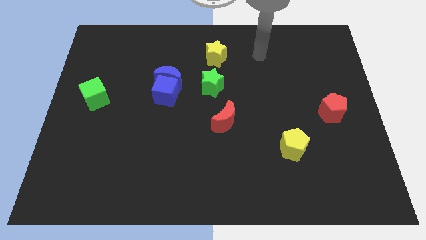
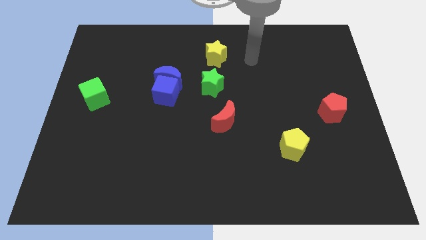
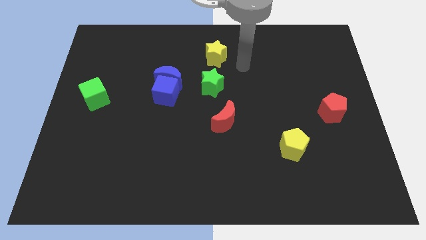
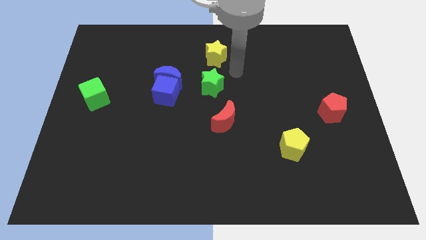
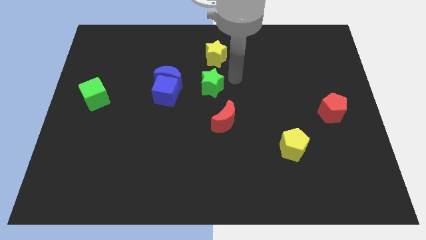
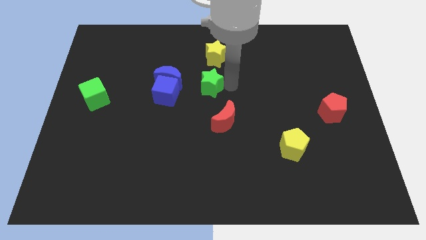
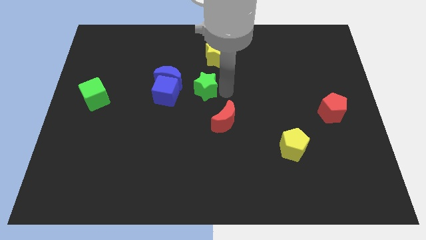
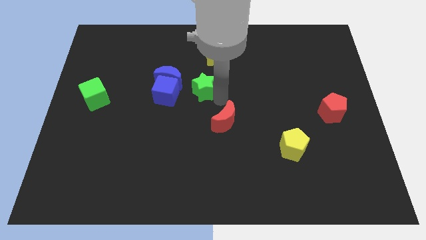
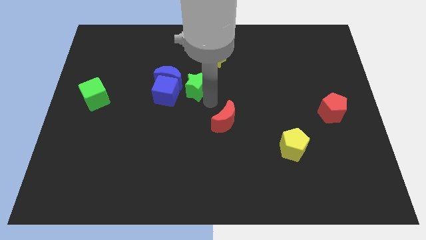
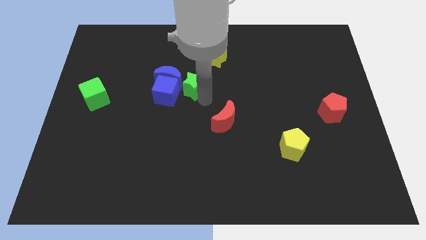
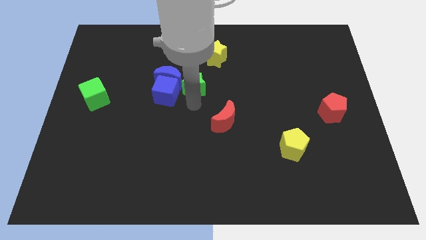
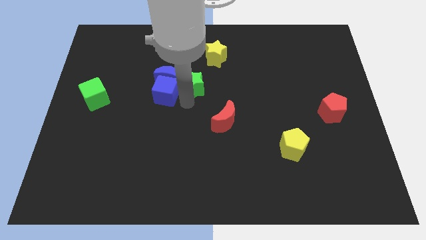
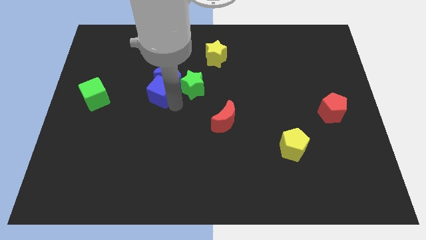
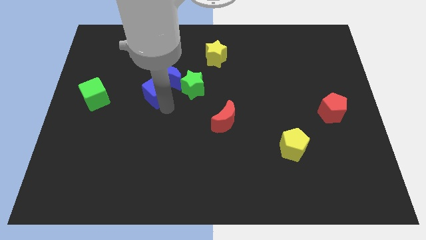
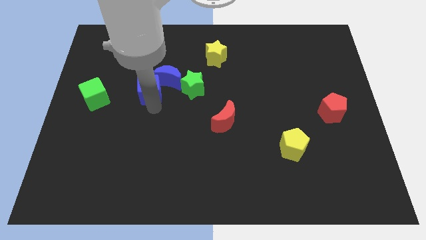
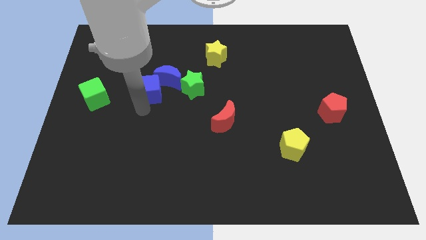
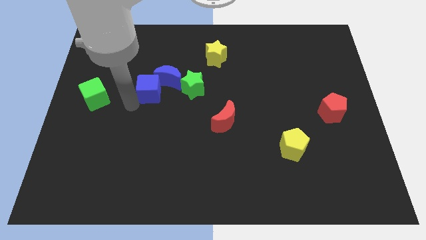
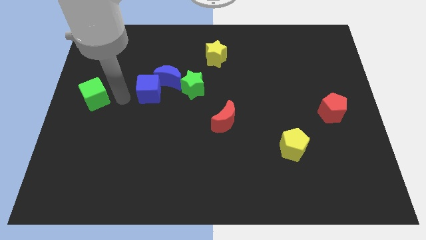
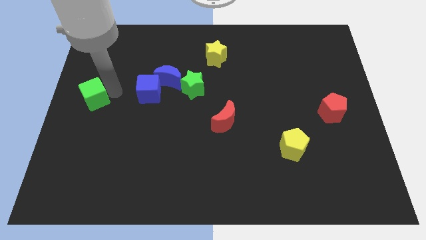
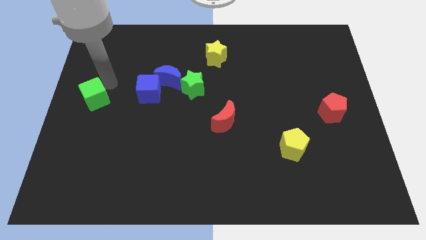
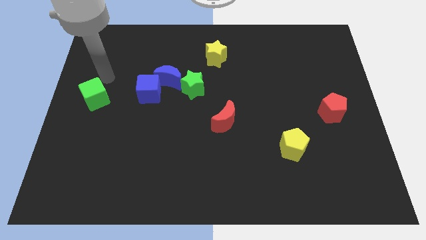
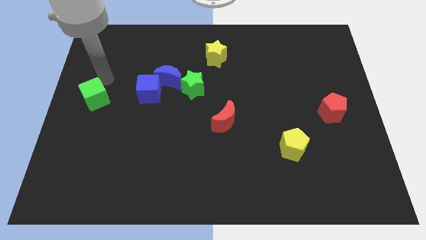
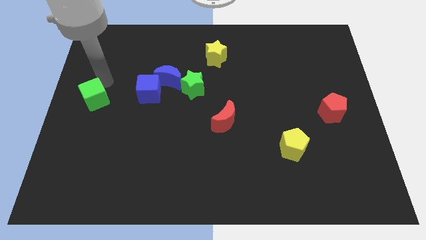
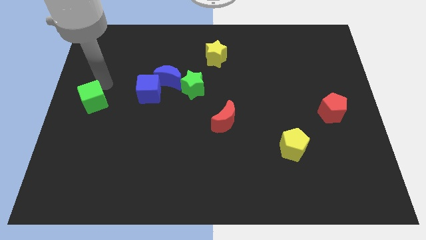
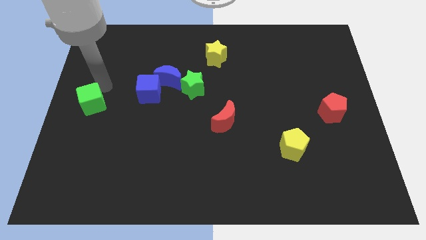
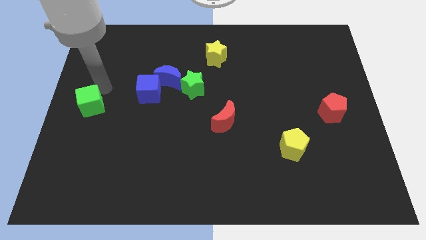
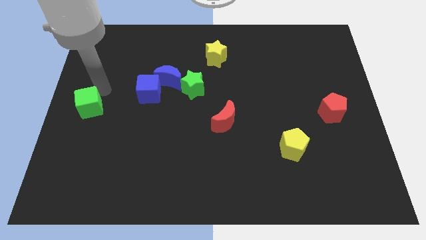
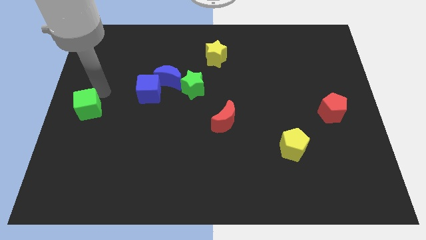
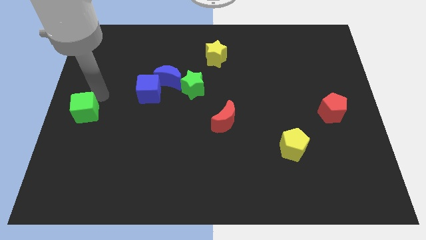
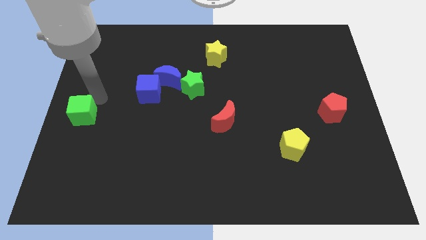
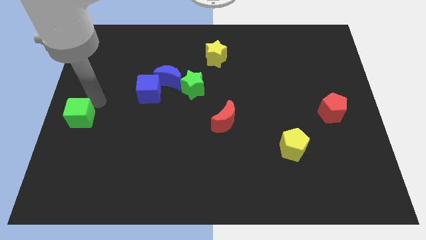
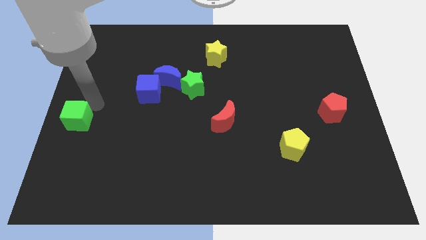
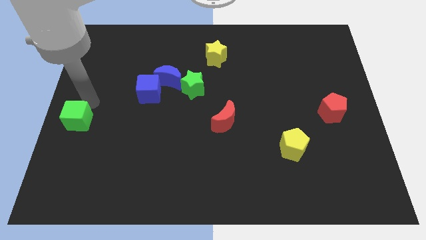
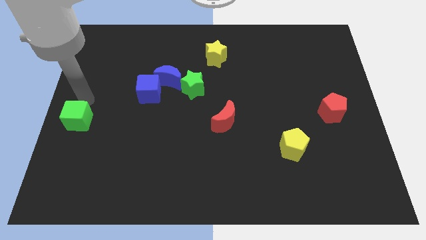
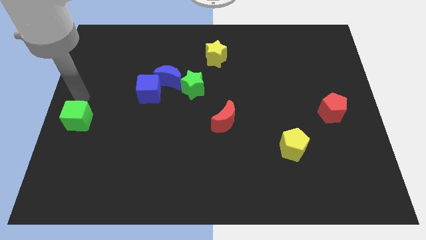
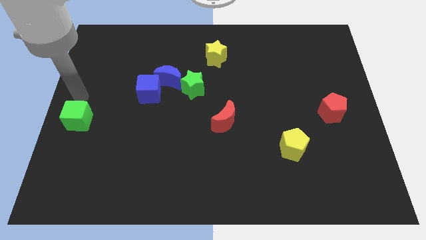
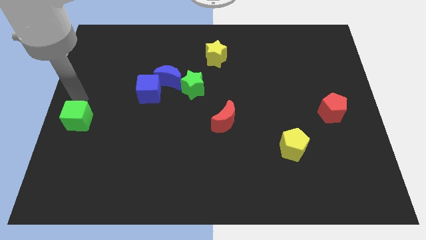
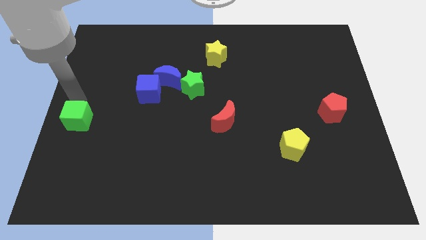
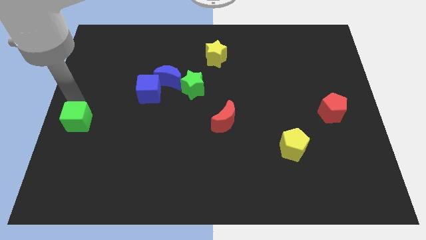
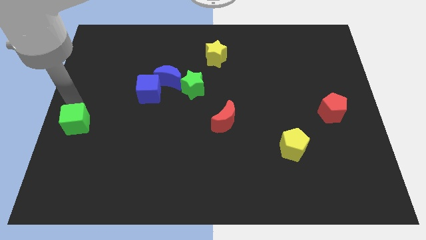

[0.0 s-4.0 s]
slightly slide the green cube downwards

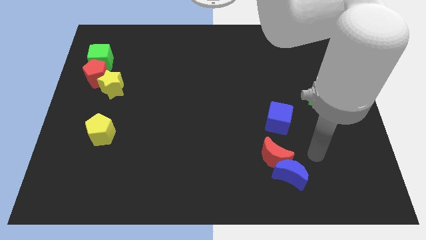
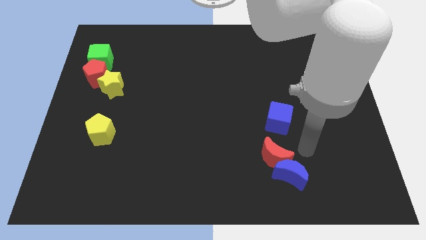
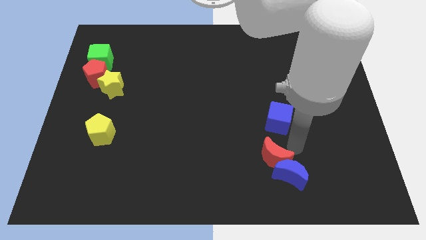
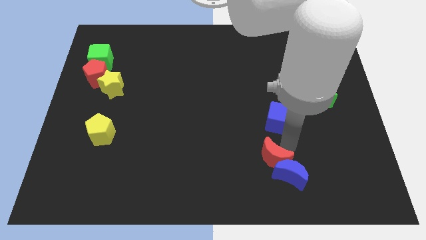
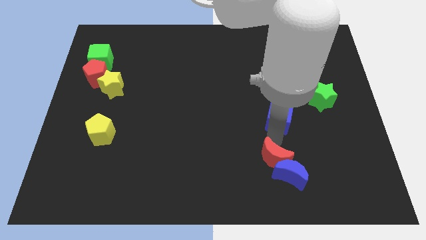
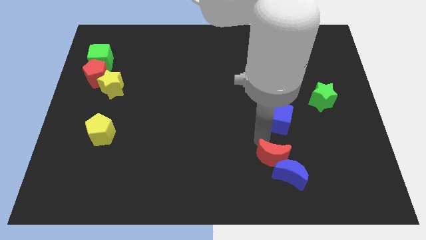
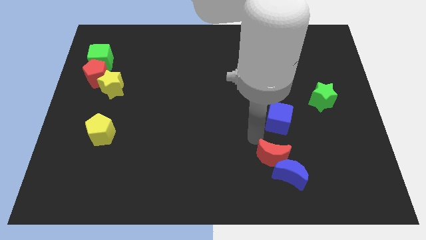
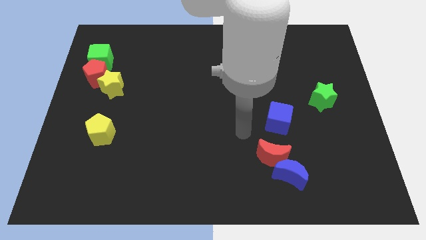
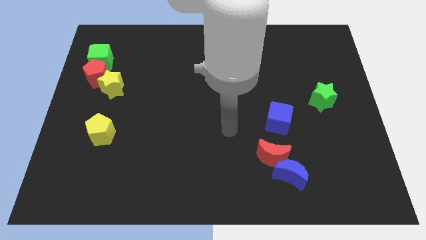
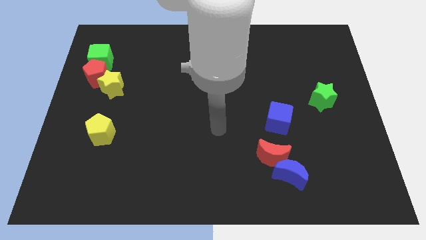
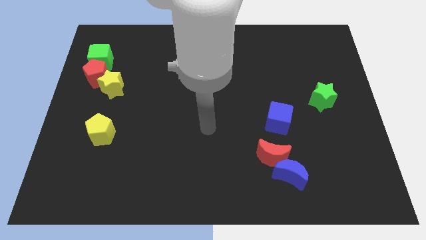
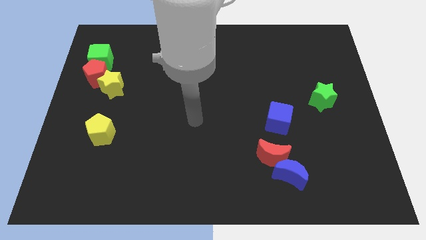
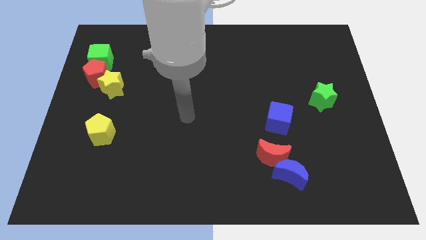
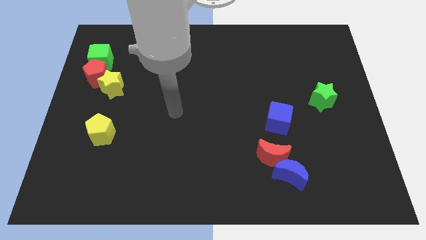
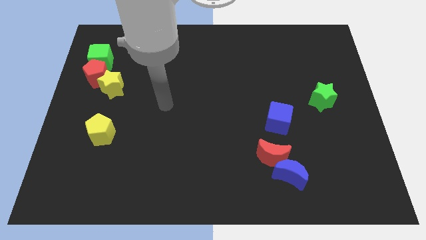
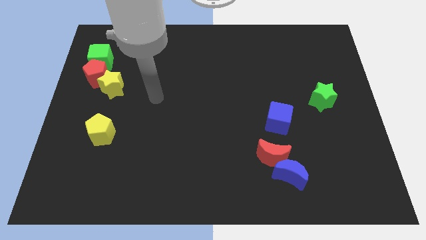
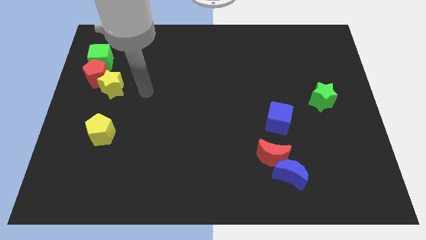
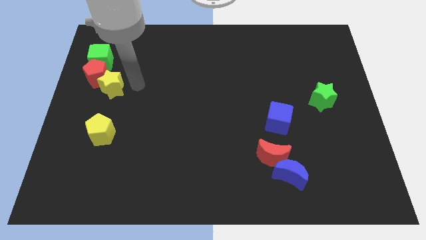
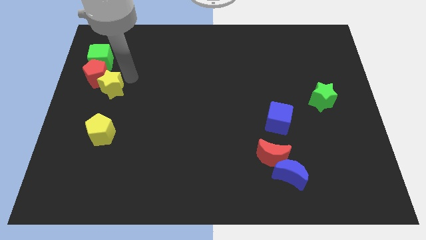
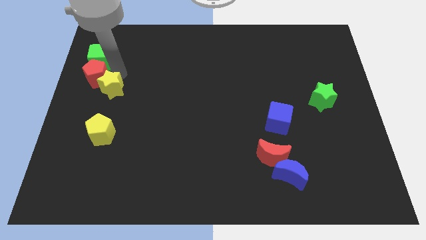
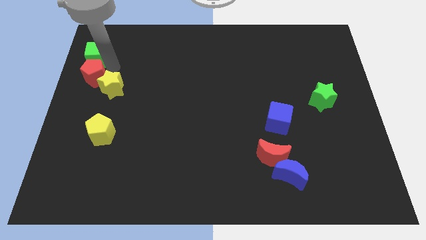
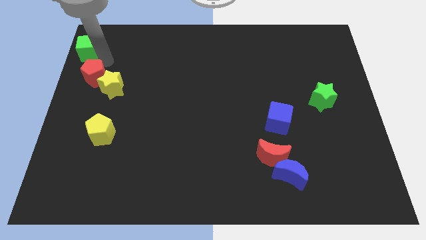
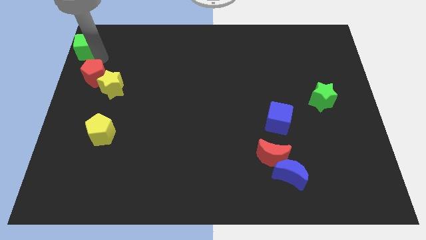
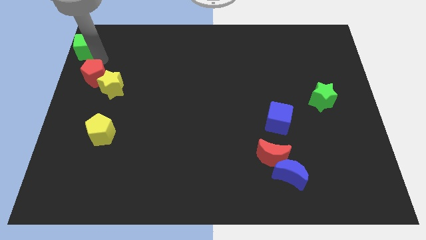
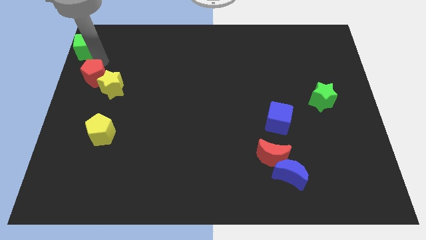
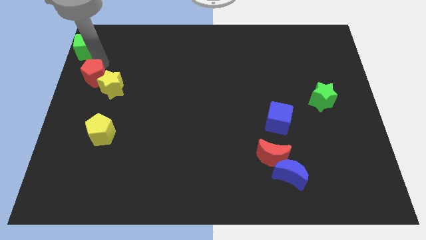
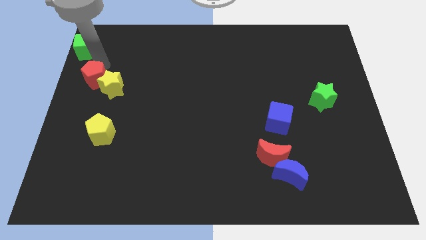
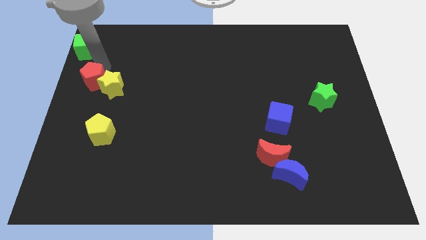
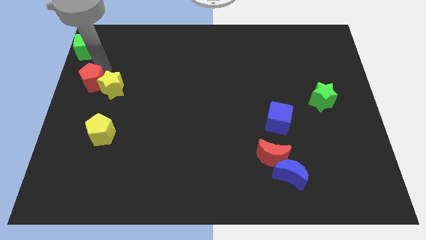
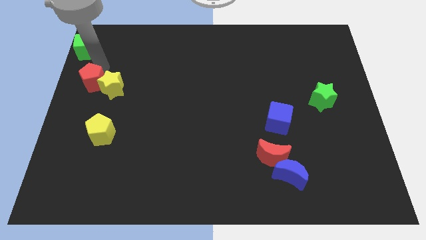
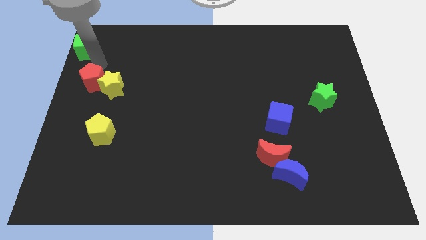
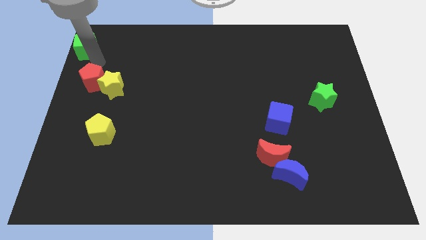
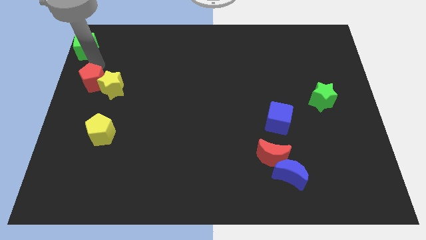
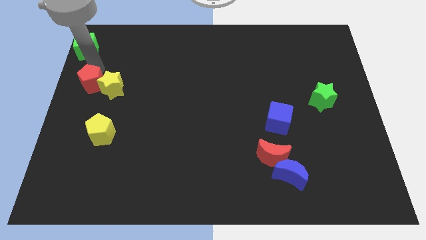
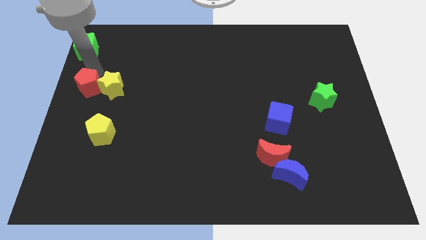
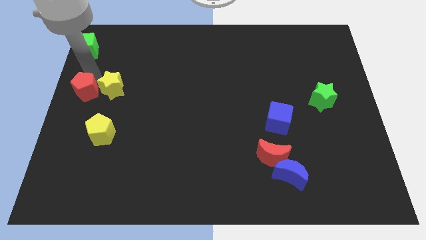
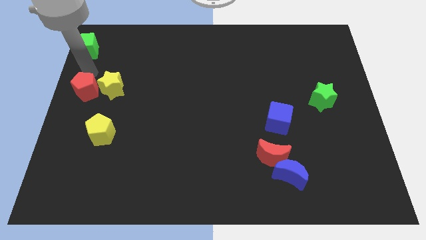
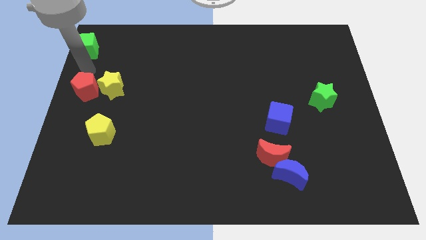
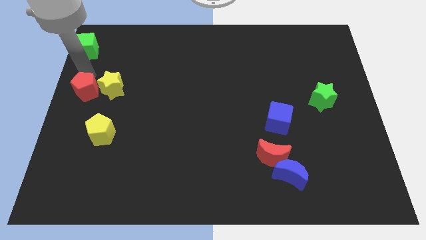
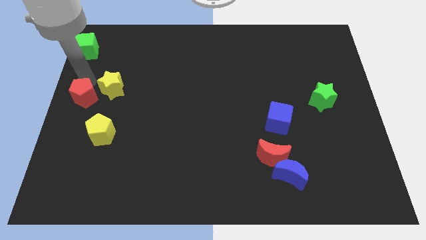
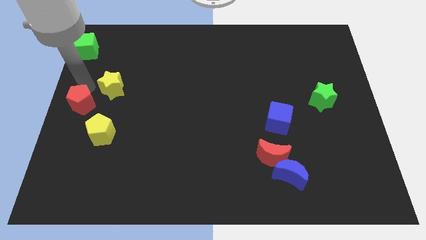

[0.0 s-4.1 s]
slide the red pentagon downwards slightly

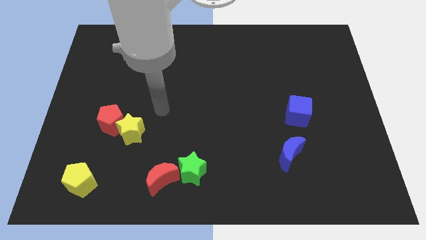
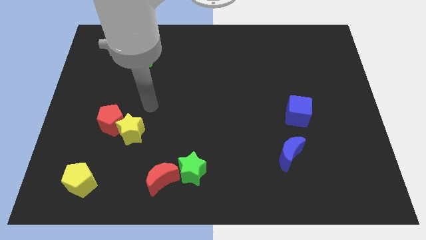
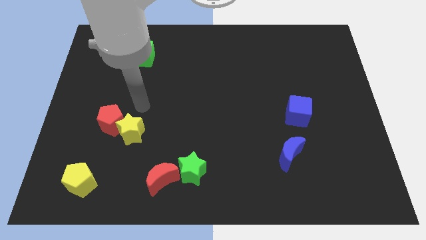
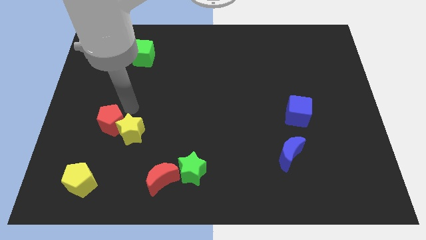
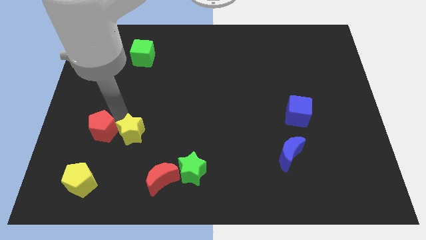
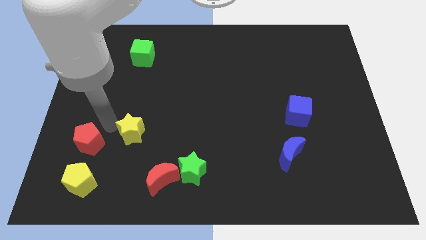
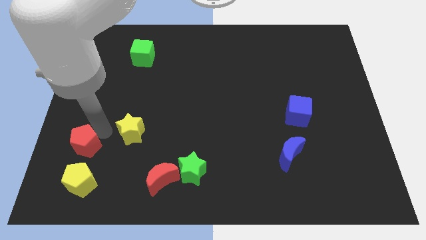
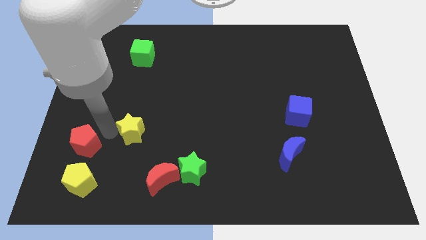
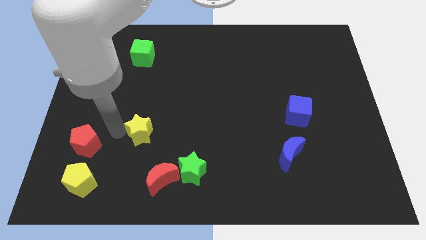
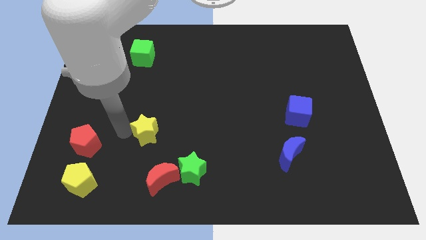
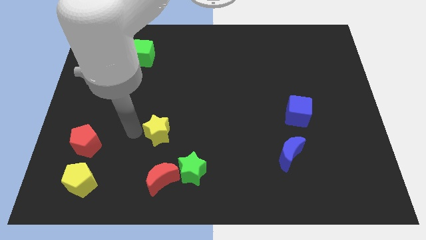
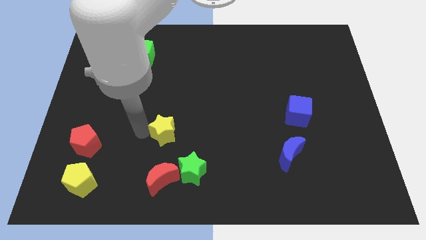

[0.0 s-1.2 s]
slightly move the yellow star right
